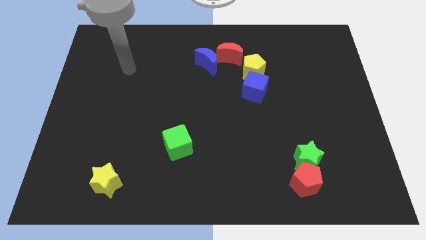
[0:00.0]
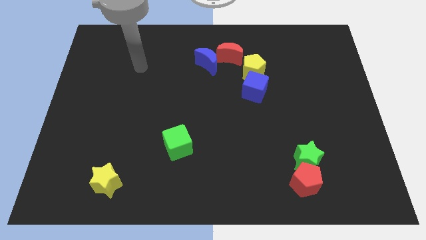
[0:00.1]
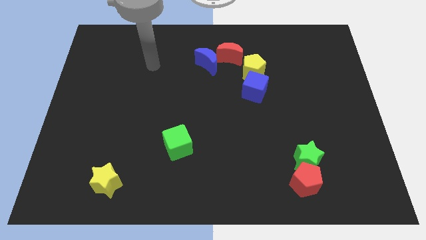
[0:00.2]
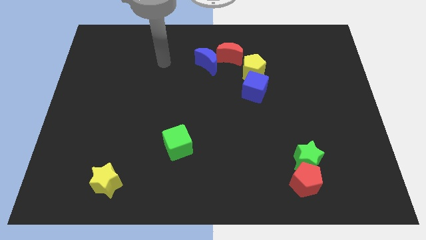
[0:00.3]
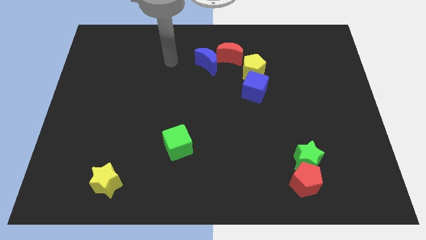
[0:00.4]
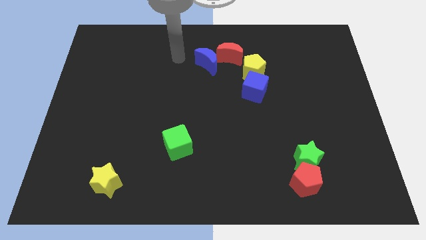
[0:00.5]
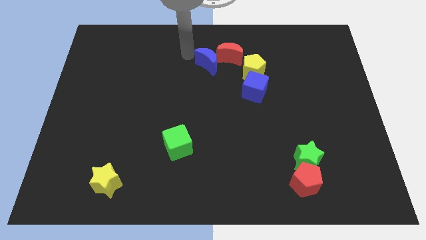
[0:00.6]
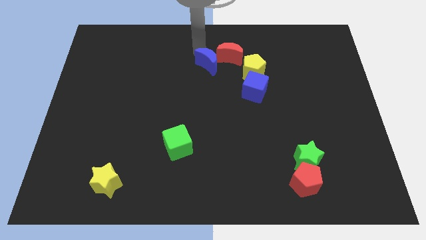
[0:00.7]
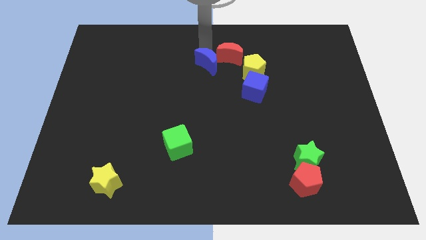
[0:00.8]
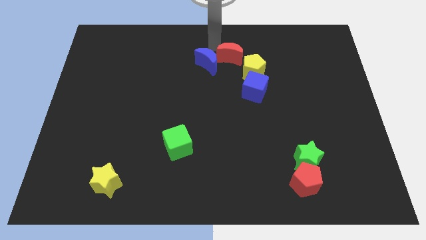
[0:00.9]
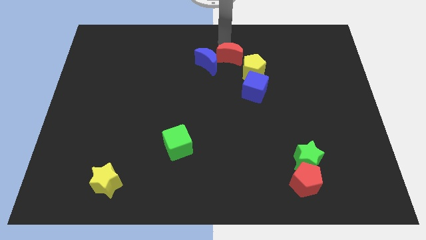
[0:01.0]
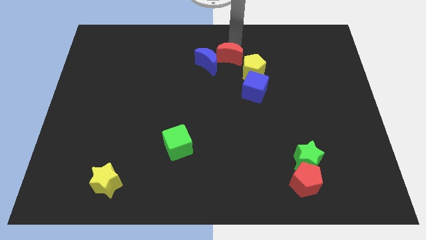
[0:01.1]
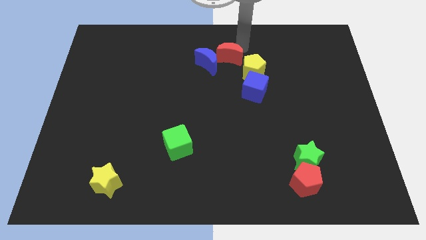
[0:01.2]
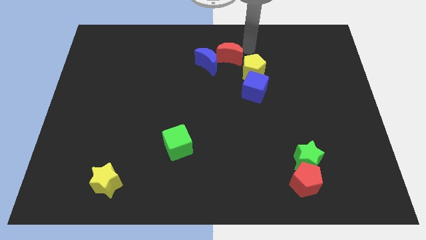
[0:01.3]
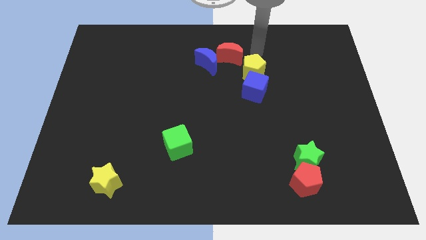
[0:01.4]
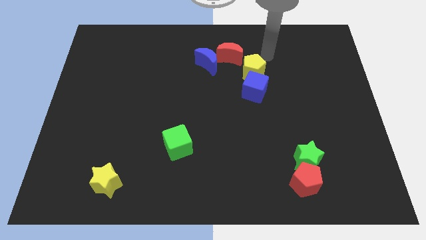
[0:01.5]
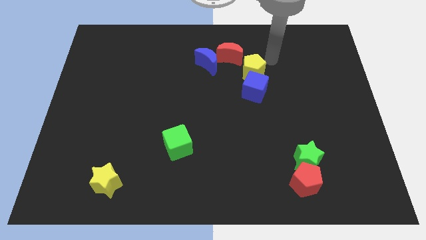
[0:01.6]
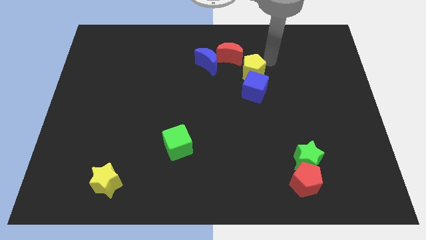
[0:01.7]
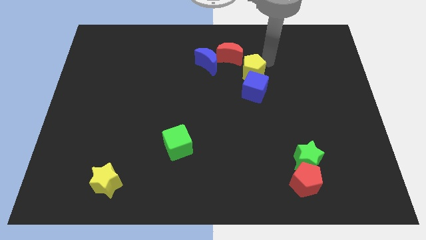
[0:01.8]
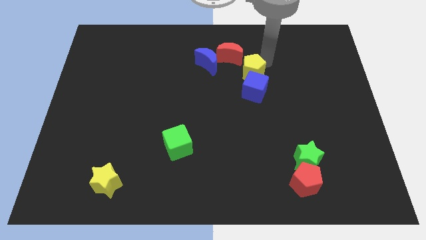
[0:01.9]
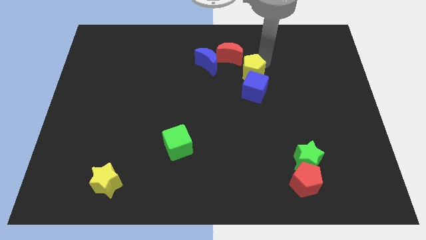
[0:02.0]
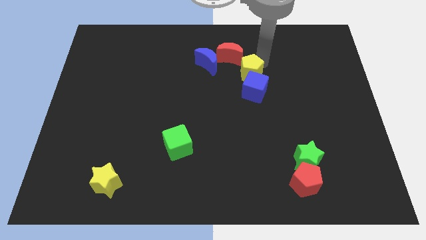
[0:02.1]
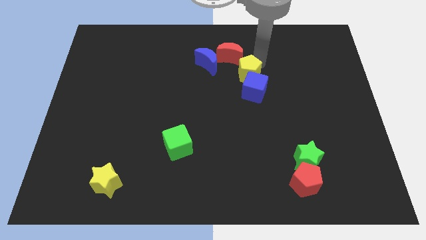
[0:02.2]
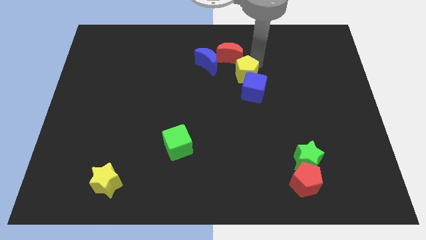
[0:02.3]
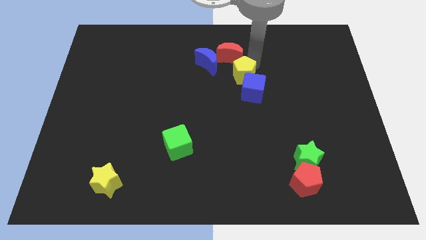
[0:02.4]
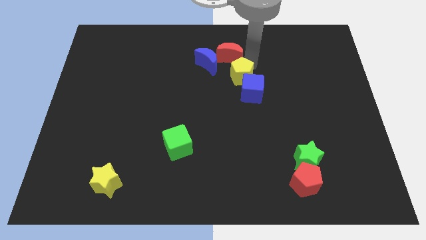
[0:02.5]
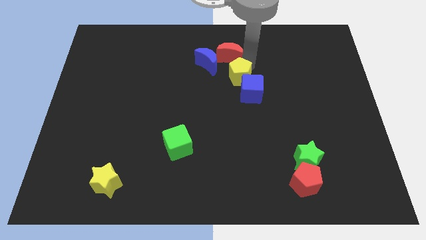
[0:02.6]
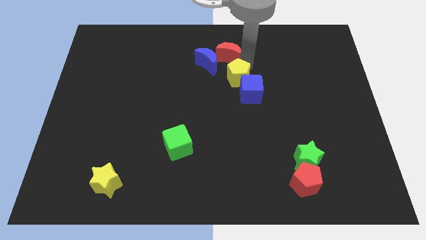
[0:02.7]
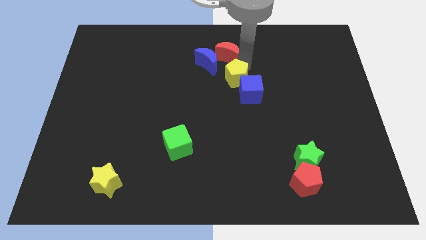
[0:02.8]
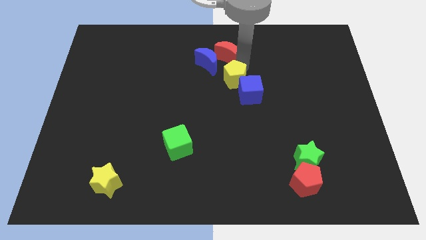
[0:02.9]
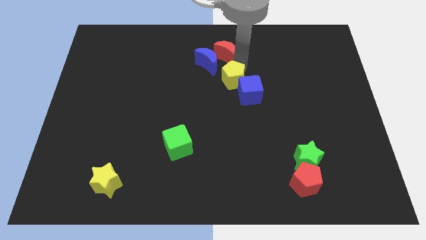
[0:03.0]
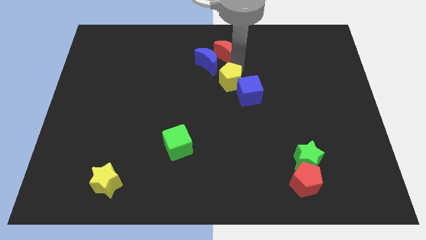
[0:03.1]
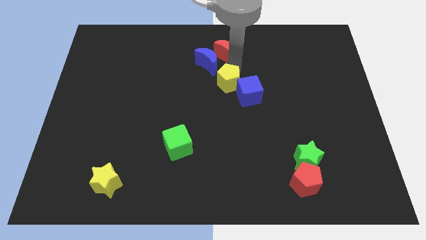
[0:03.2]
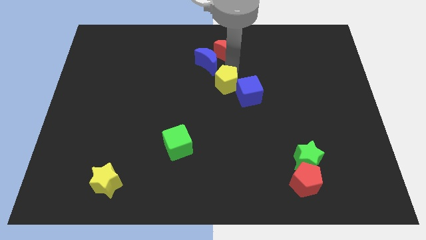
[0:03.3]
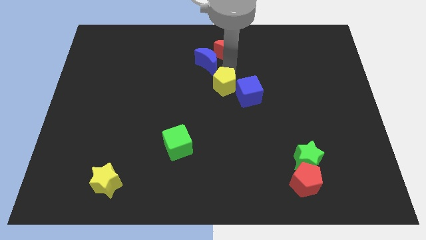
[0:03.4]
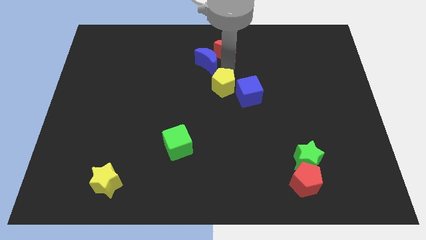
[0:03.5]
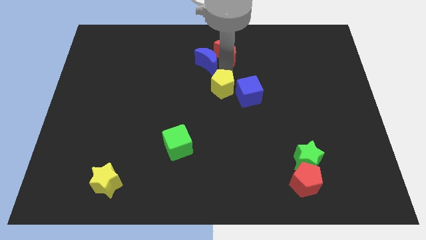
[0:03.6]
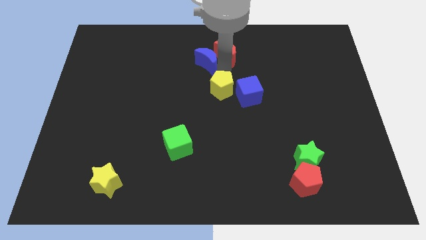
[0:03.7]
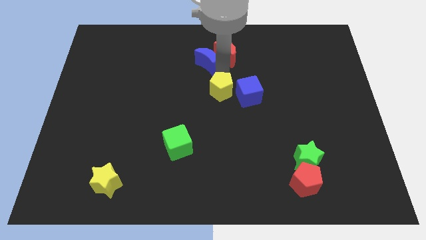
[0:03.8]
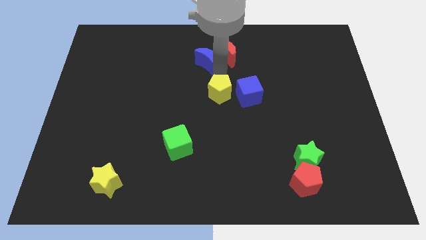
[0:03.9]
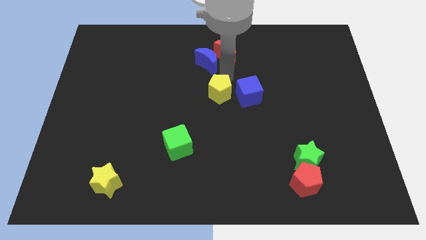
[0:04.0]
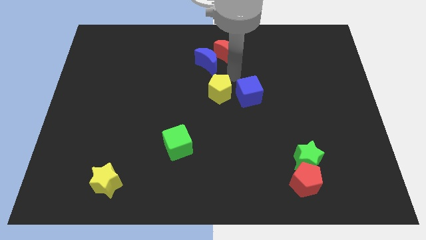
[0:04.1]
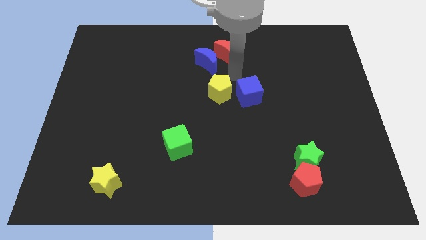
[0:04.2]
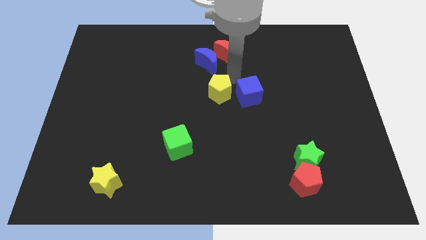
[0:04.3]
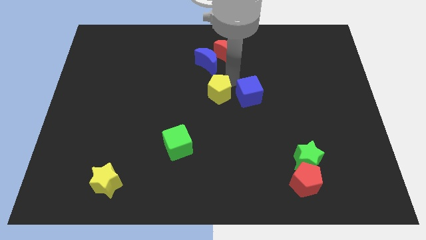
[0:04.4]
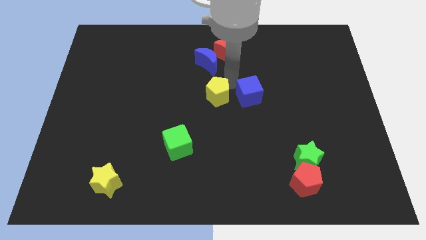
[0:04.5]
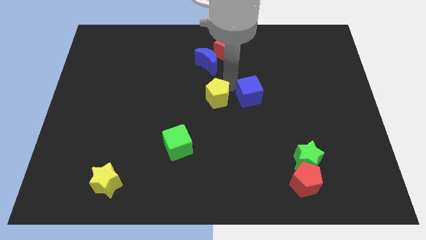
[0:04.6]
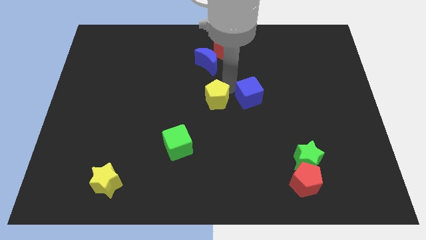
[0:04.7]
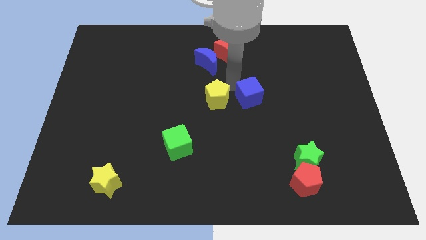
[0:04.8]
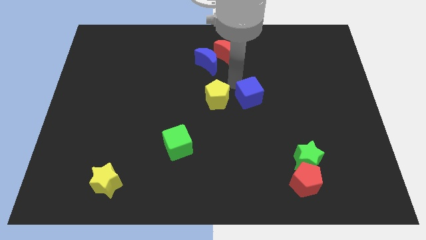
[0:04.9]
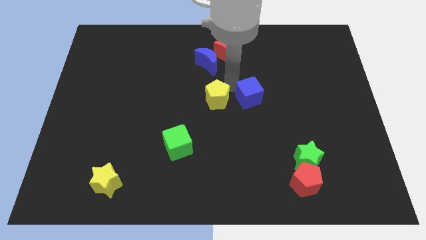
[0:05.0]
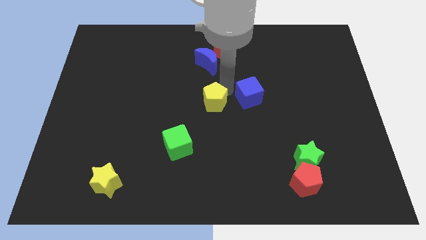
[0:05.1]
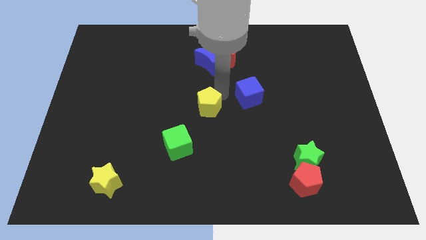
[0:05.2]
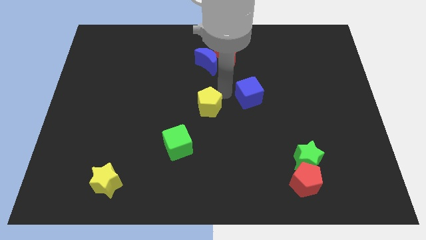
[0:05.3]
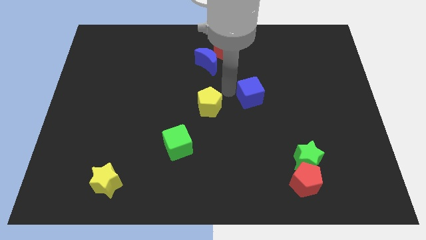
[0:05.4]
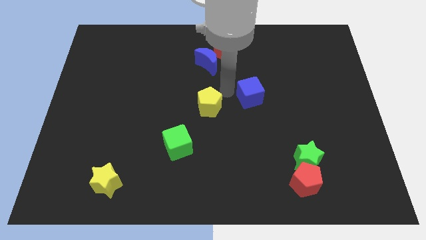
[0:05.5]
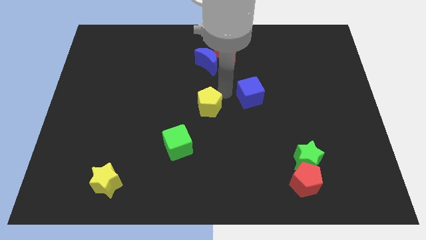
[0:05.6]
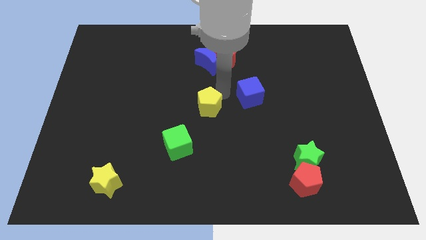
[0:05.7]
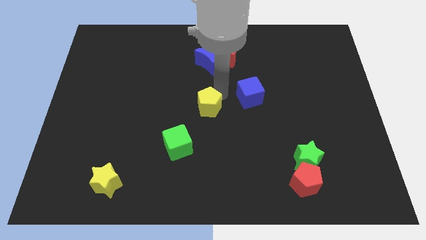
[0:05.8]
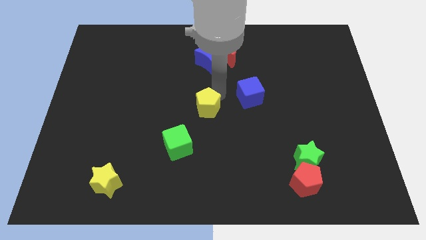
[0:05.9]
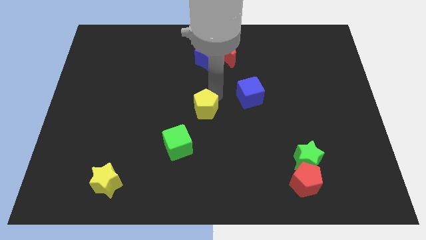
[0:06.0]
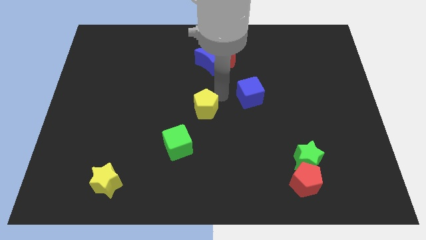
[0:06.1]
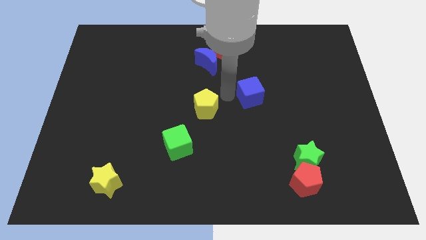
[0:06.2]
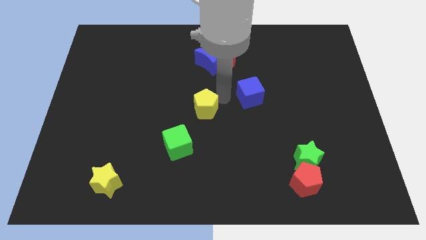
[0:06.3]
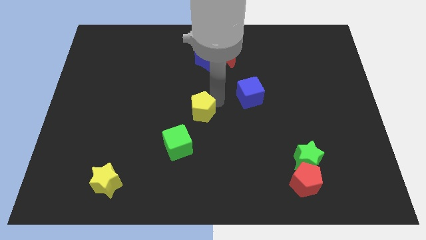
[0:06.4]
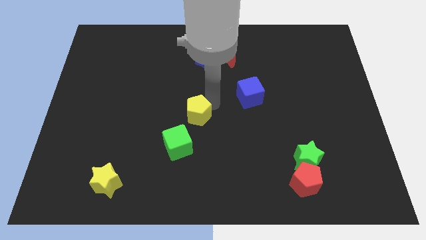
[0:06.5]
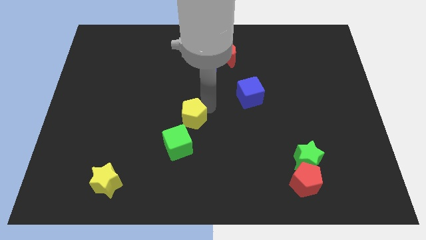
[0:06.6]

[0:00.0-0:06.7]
slide the yellow pentagon down and left diagonally

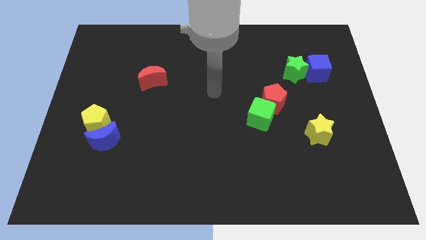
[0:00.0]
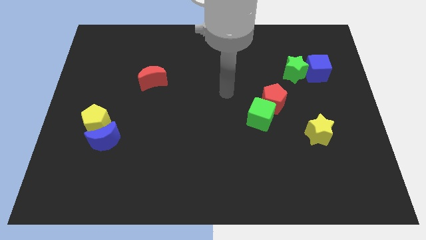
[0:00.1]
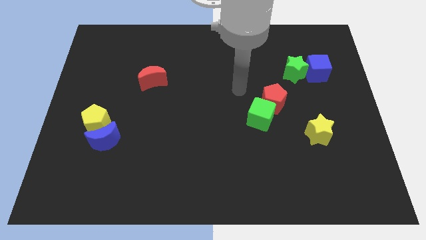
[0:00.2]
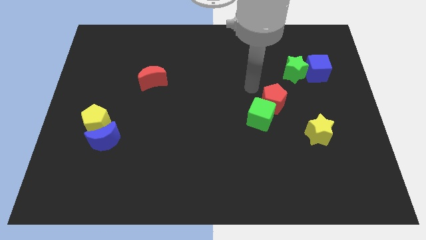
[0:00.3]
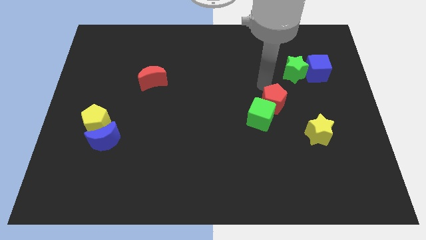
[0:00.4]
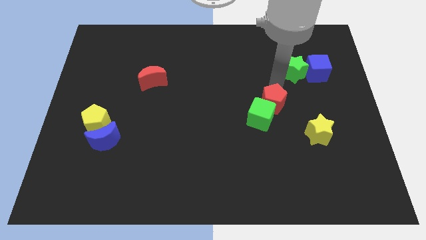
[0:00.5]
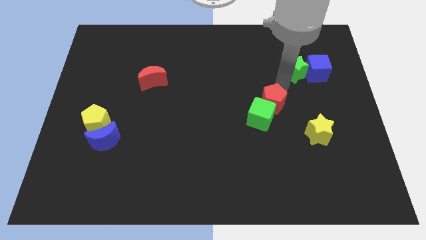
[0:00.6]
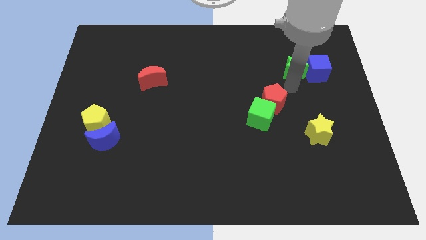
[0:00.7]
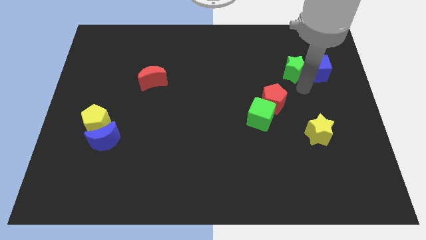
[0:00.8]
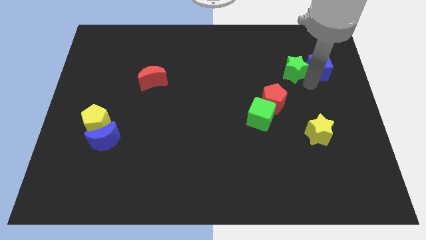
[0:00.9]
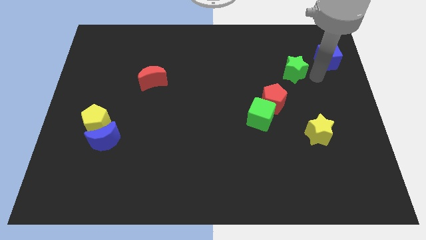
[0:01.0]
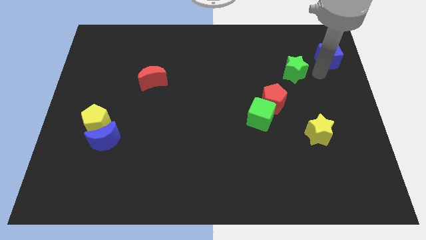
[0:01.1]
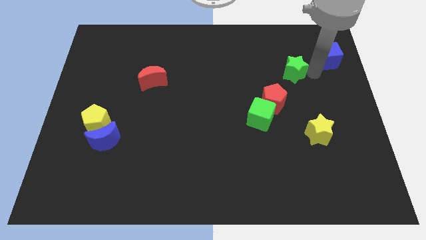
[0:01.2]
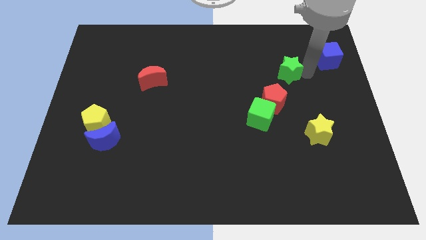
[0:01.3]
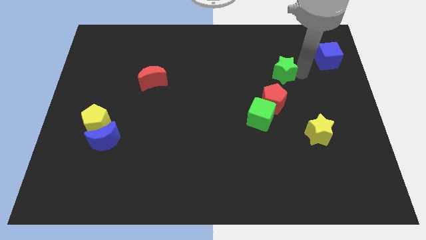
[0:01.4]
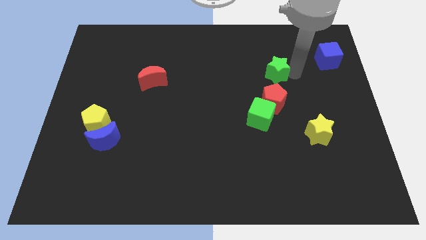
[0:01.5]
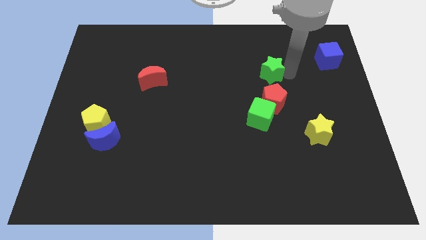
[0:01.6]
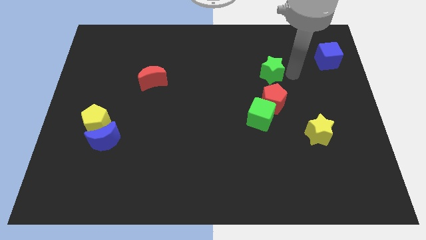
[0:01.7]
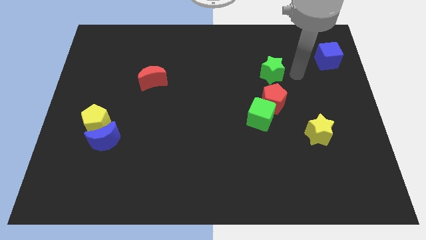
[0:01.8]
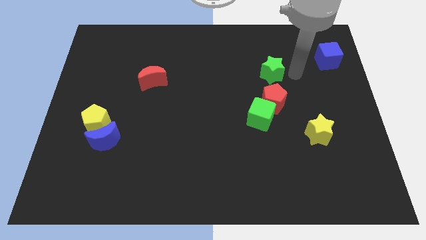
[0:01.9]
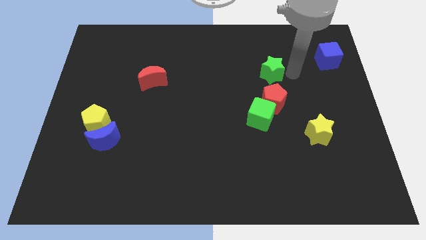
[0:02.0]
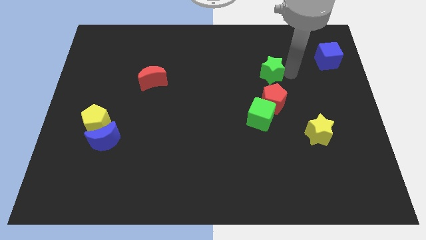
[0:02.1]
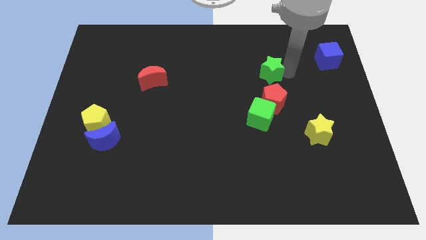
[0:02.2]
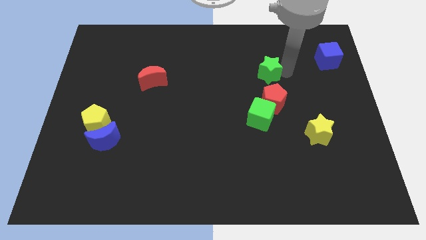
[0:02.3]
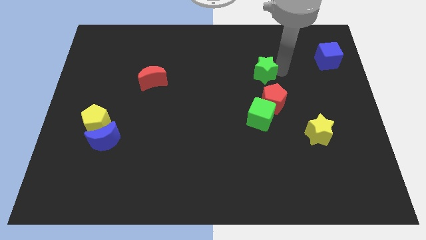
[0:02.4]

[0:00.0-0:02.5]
push the green star a little bit left
